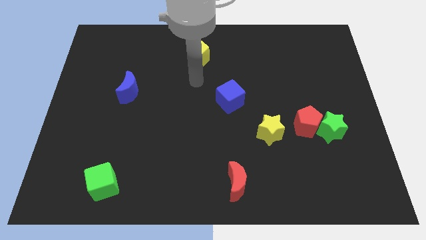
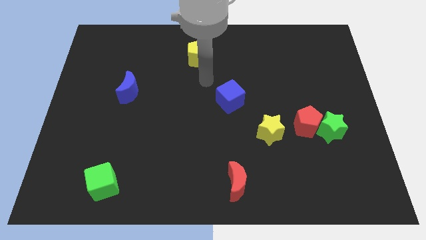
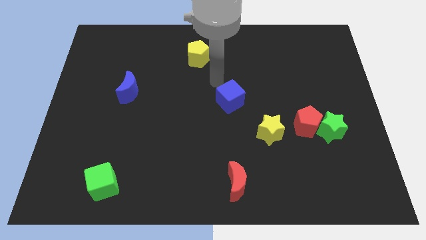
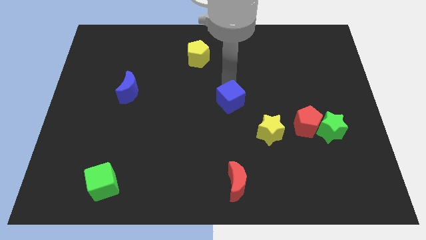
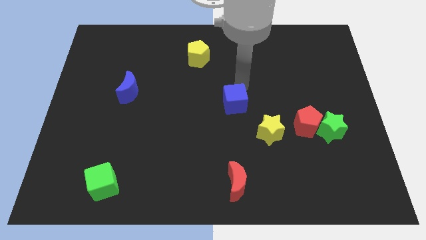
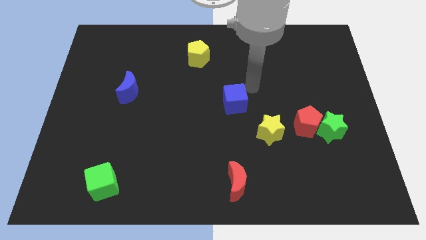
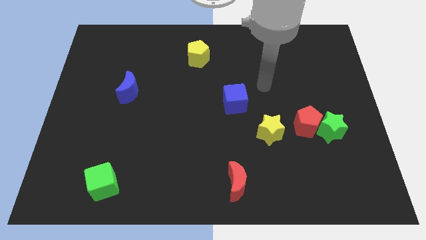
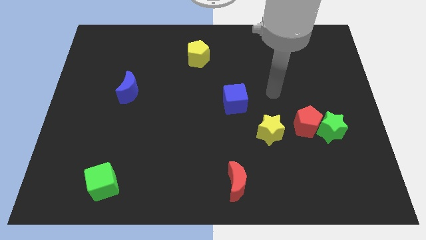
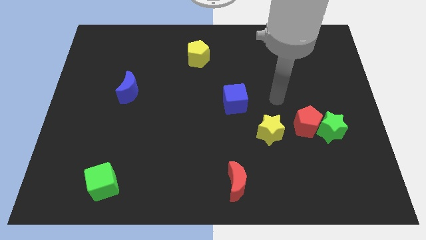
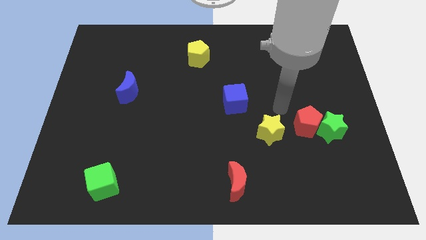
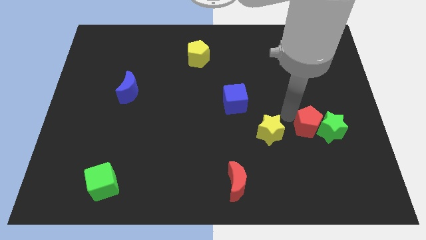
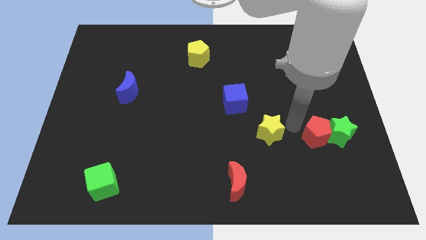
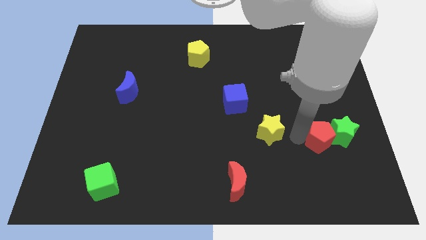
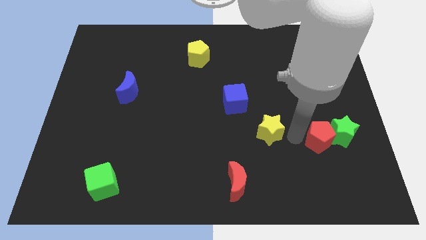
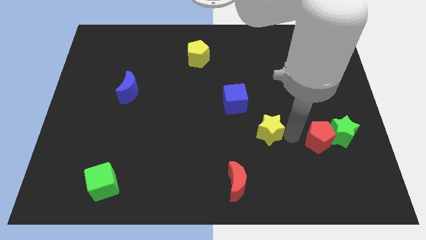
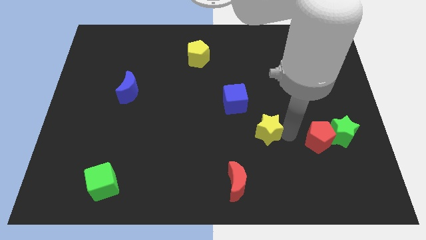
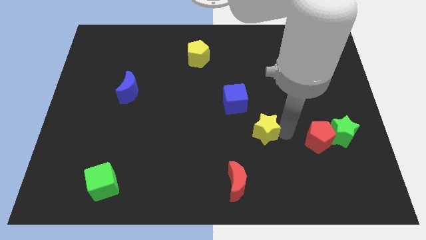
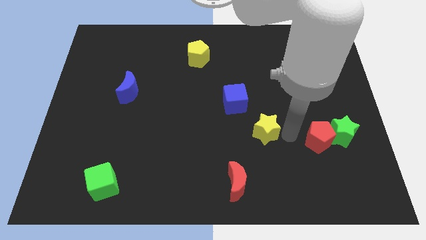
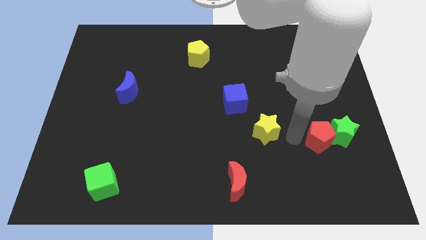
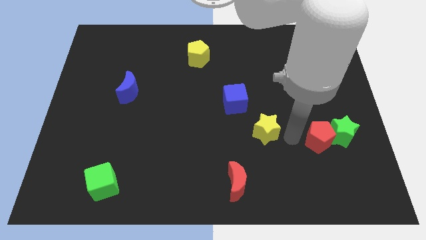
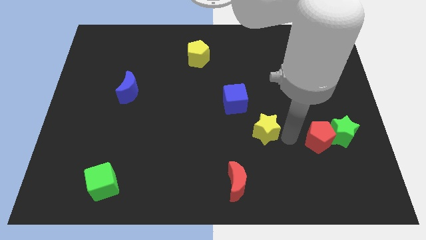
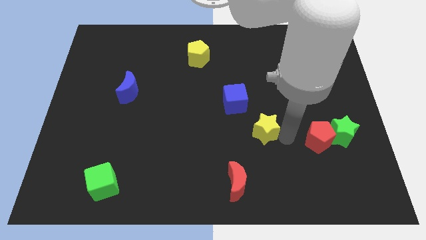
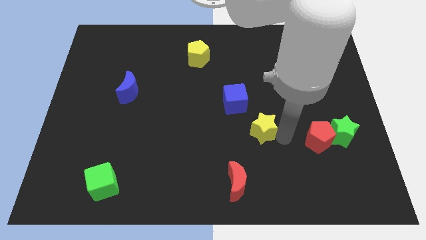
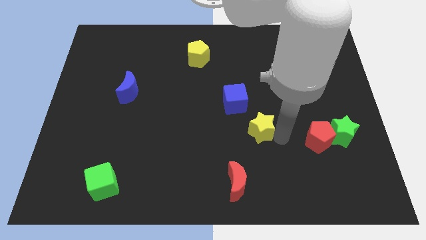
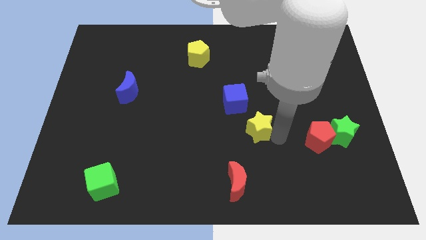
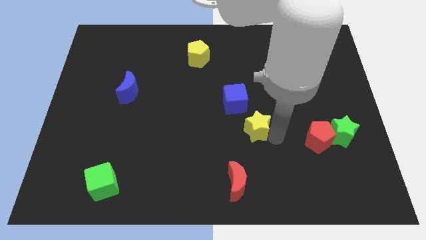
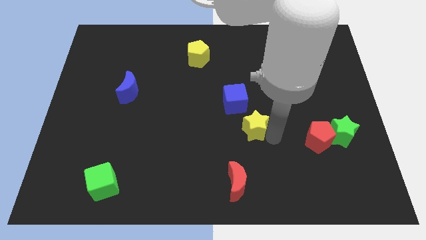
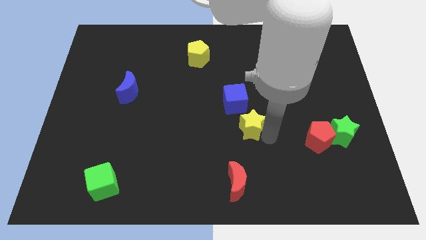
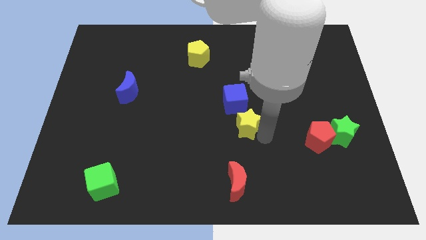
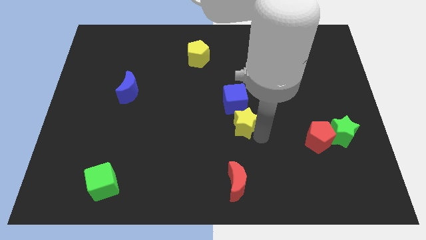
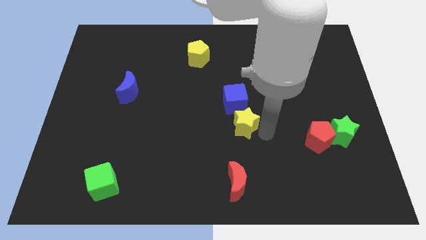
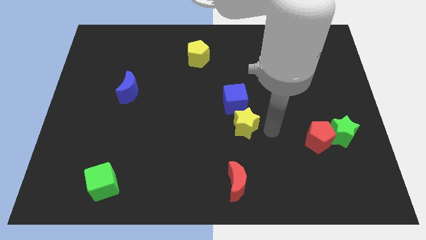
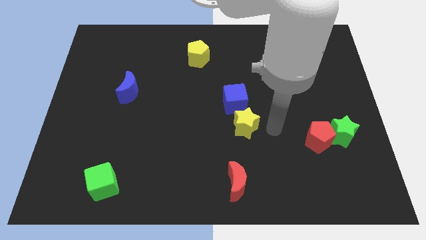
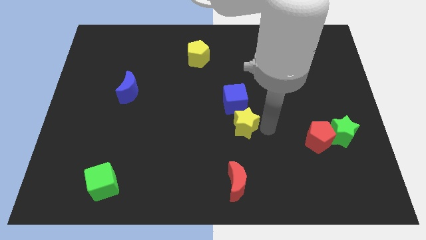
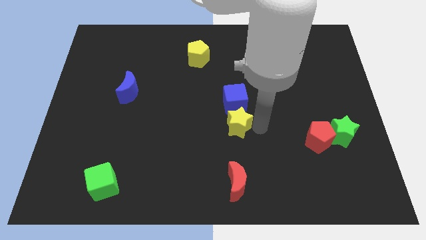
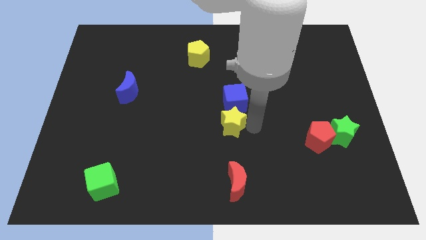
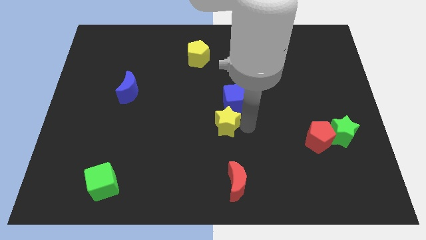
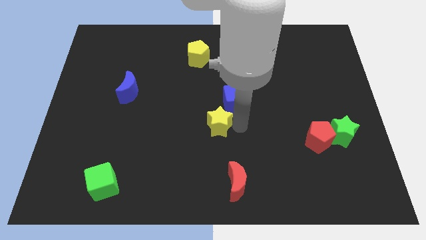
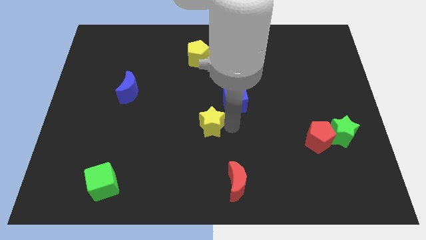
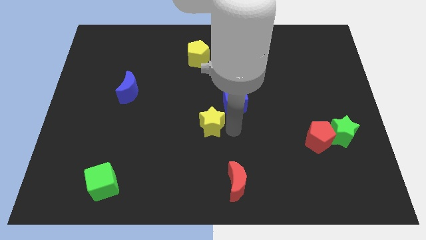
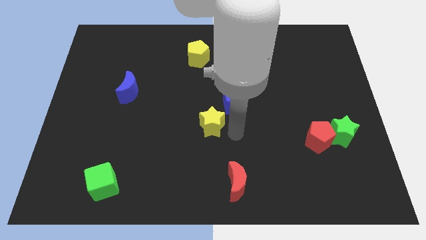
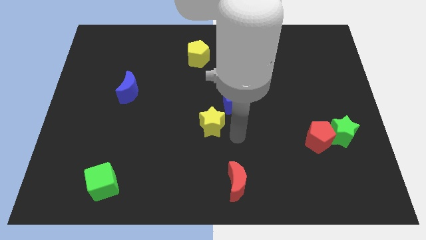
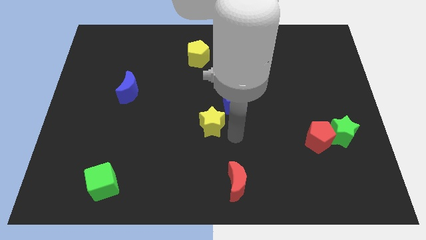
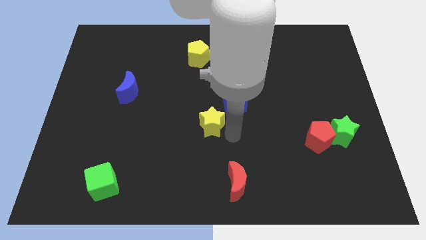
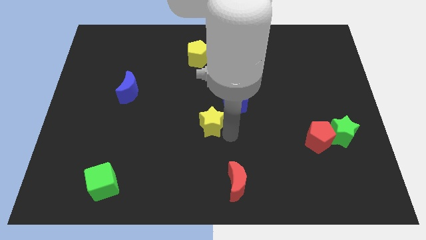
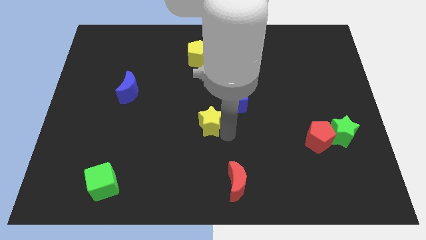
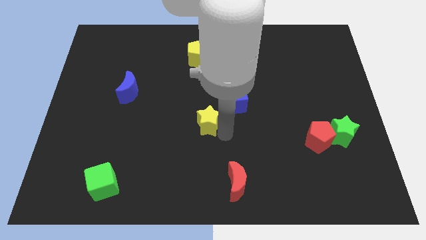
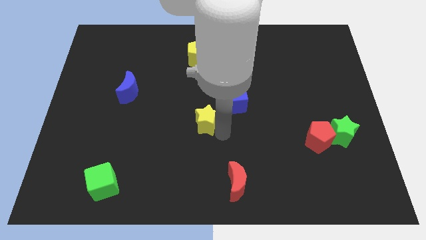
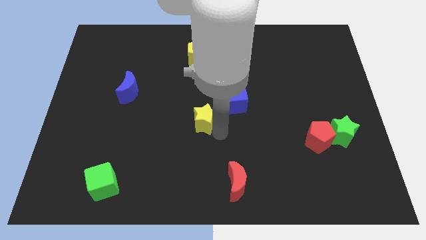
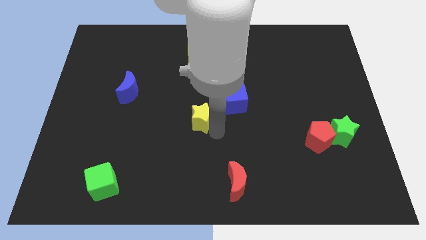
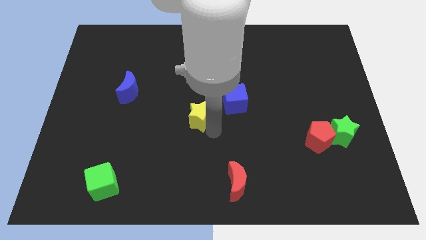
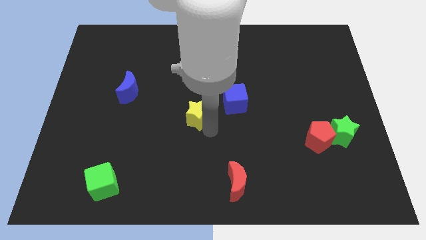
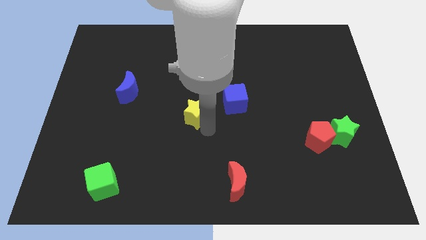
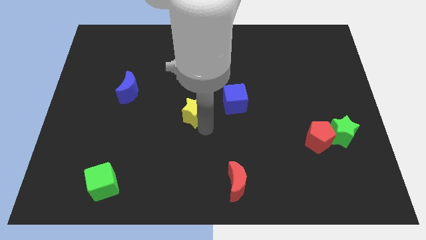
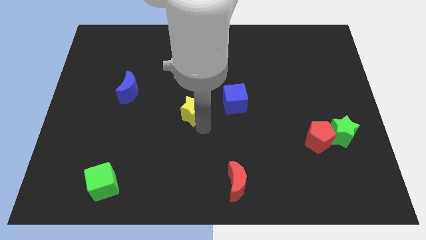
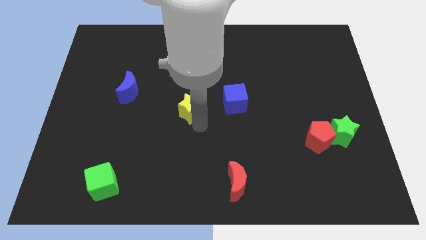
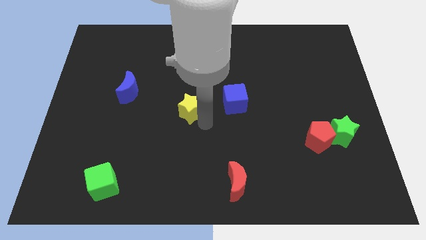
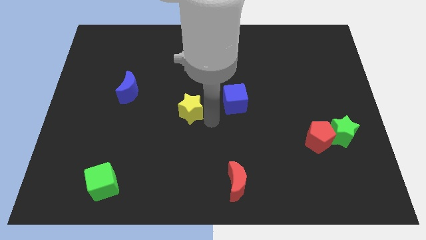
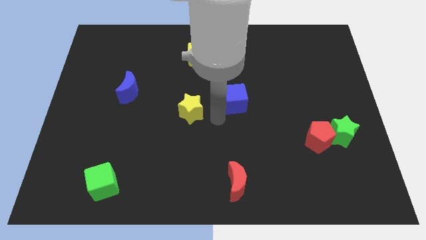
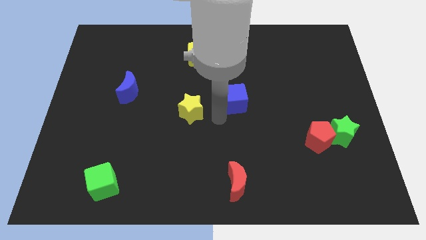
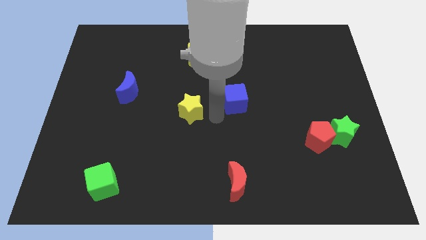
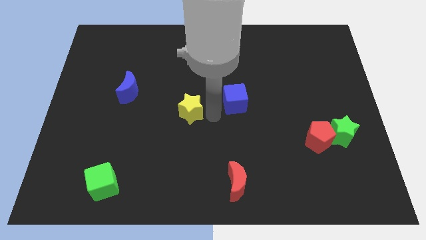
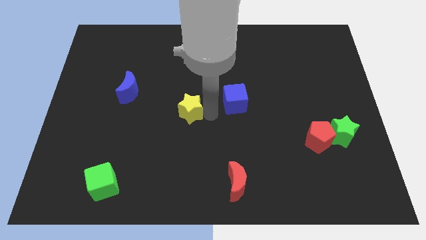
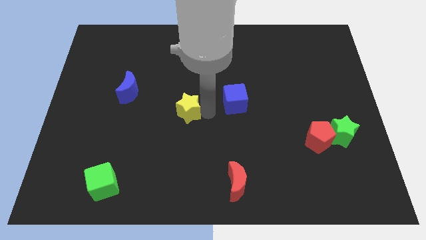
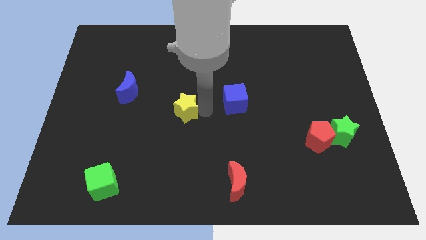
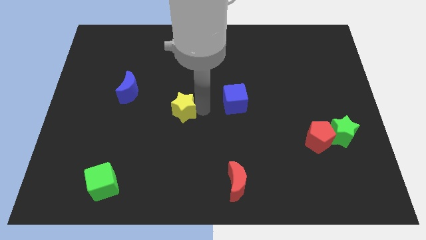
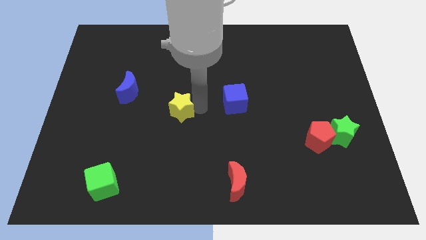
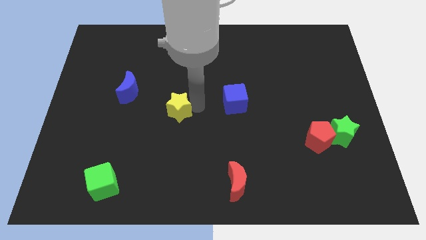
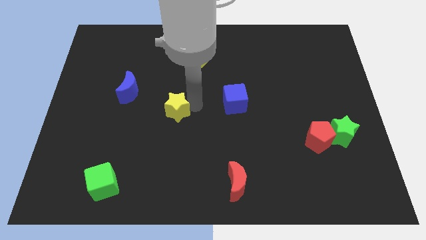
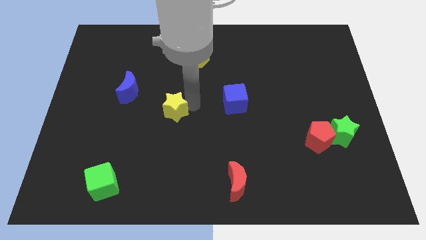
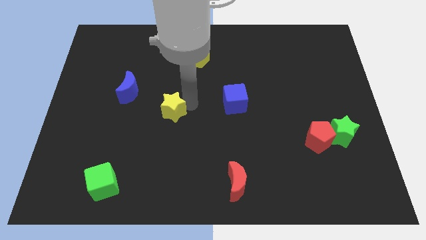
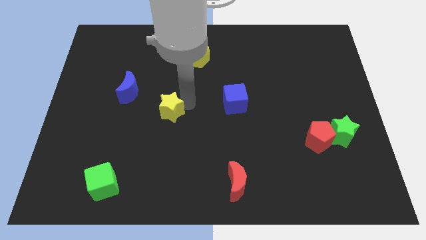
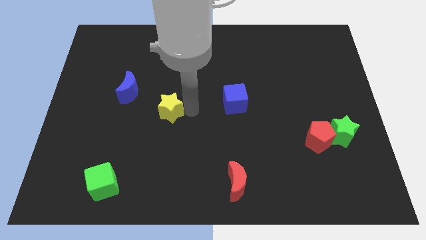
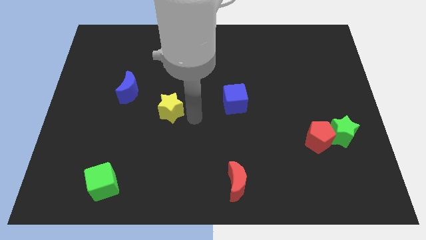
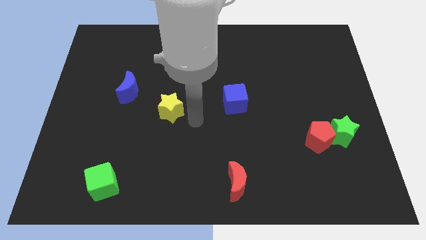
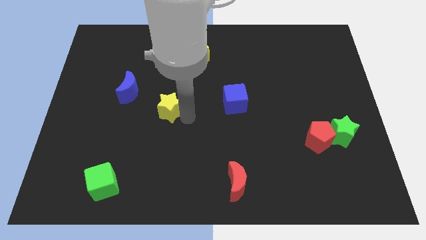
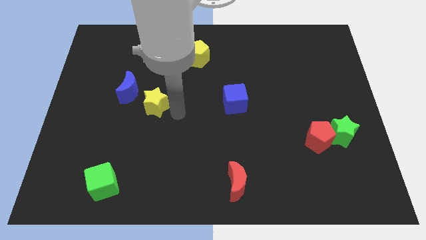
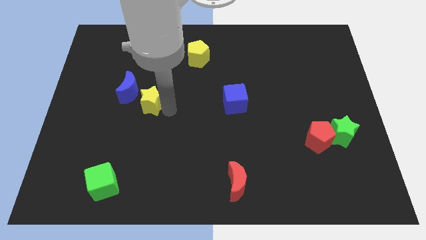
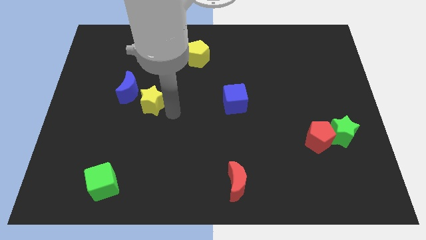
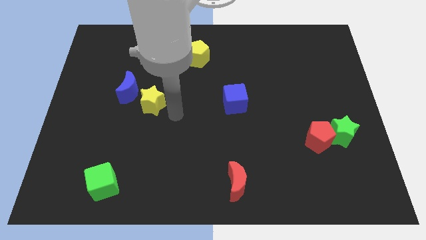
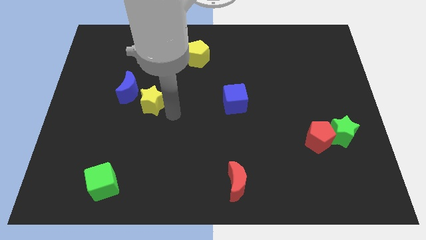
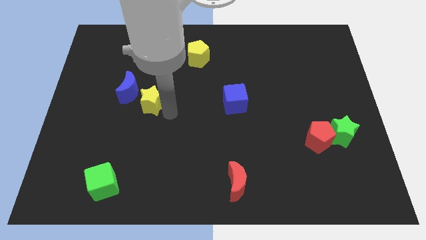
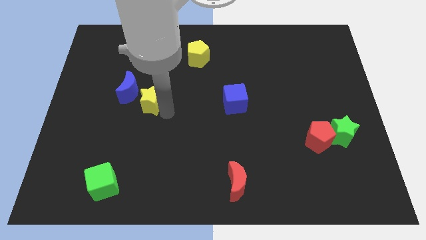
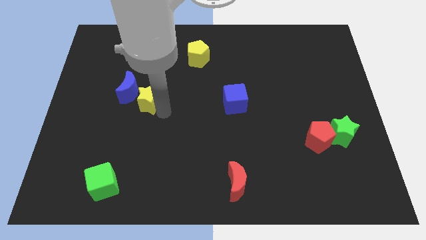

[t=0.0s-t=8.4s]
slide the yellow star next to the blue moon
